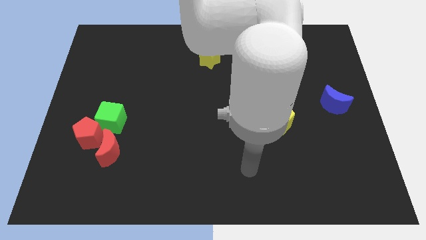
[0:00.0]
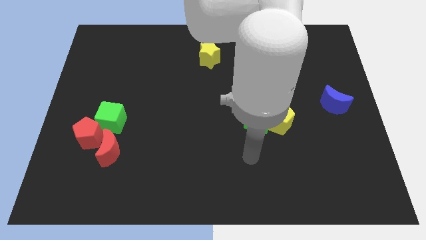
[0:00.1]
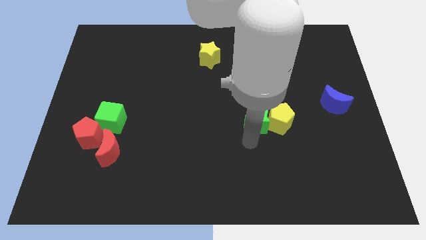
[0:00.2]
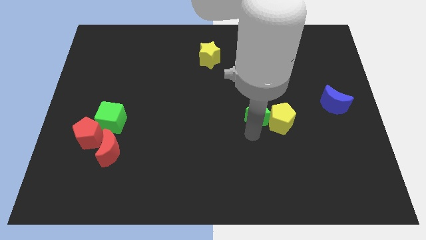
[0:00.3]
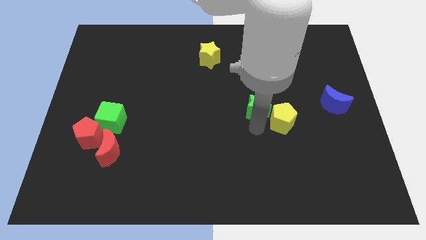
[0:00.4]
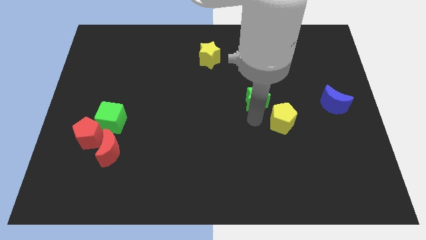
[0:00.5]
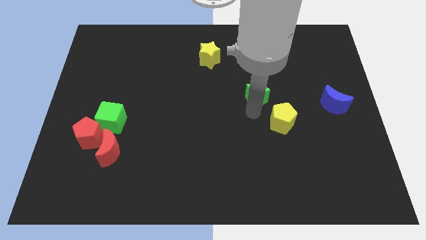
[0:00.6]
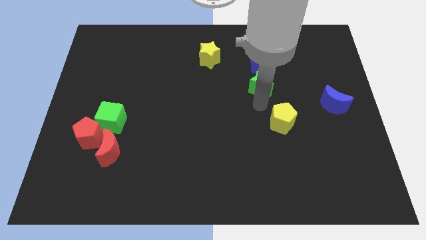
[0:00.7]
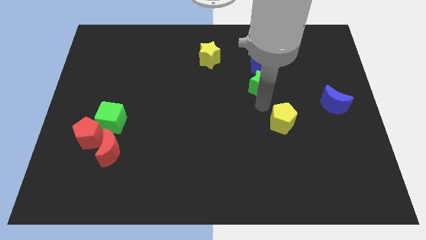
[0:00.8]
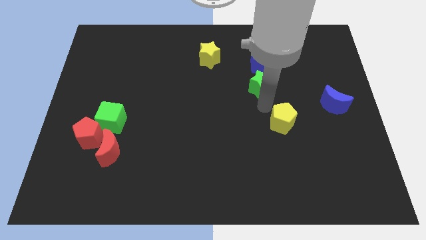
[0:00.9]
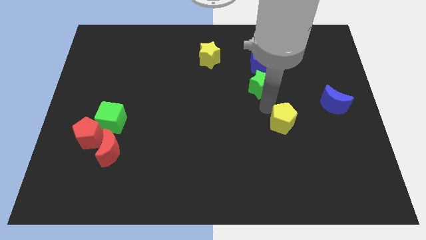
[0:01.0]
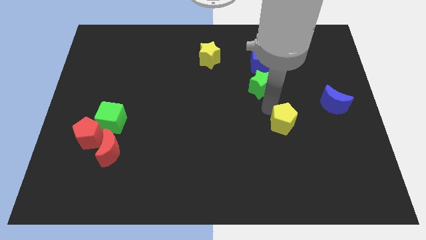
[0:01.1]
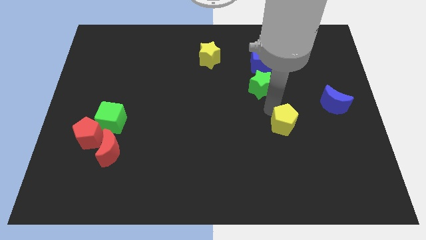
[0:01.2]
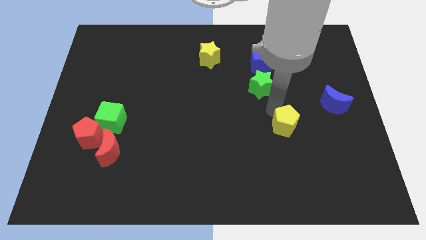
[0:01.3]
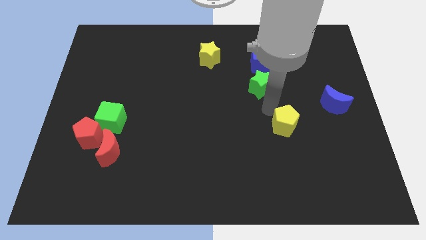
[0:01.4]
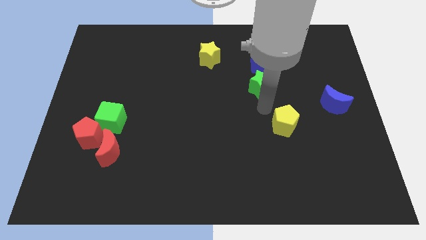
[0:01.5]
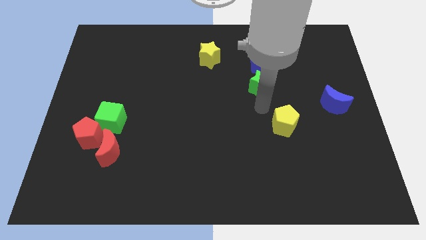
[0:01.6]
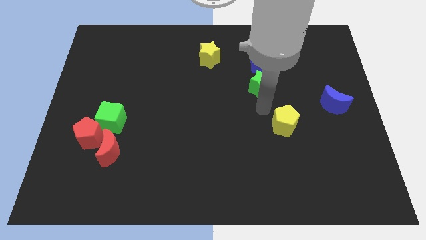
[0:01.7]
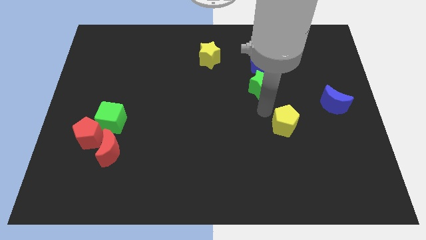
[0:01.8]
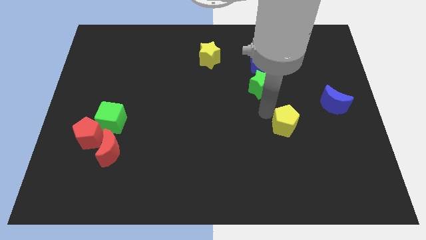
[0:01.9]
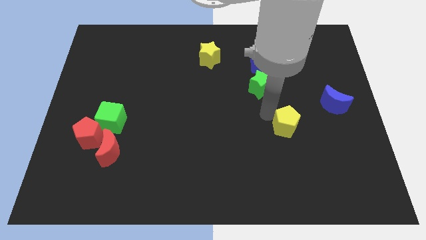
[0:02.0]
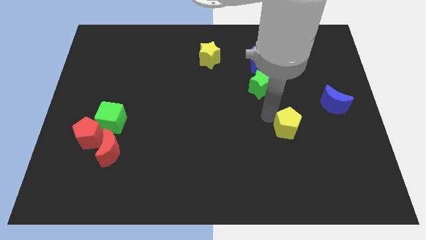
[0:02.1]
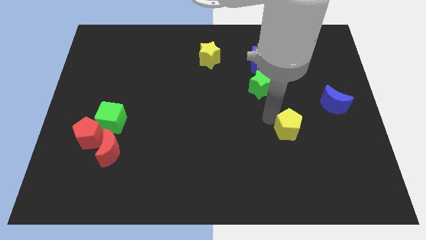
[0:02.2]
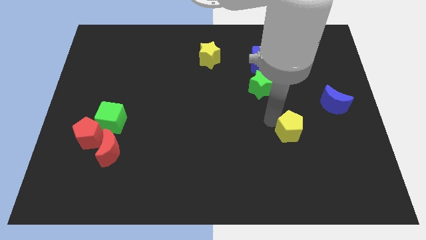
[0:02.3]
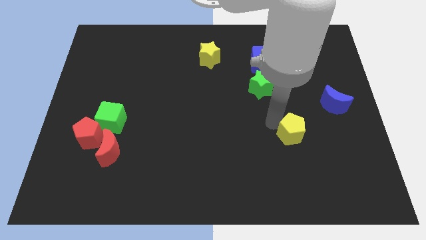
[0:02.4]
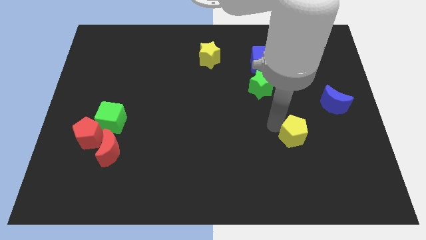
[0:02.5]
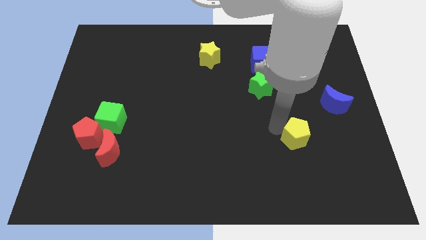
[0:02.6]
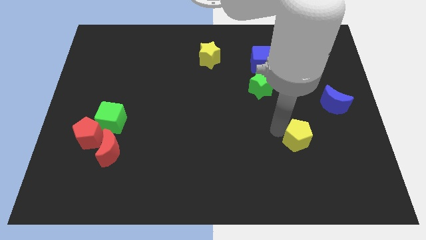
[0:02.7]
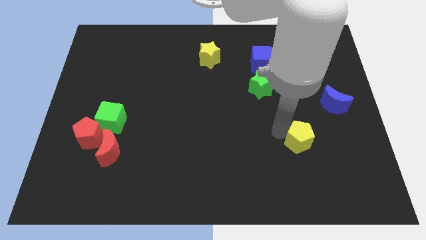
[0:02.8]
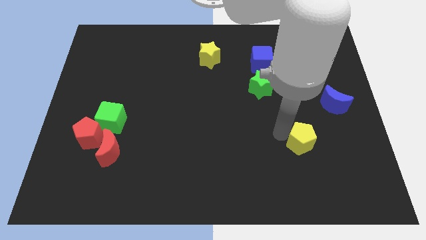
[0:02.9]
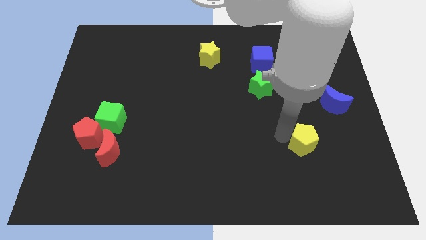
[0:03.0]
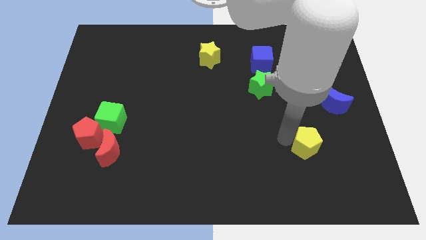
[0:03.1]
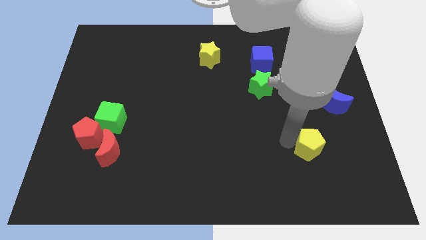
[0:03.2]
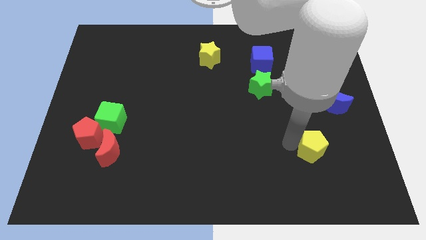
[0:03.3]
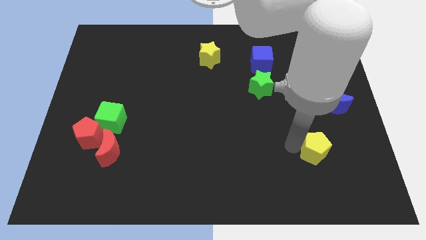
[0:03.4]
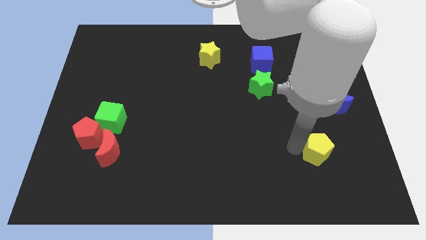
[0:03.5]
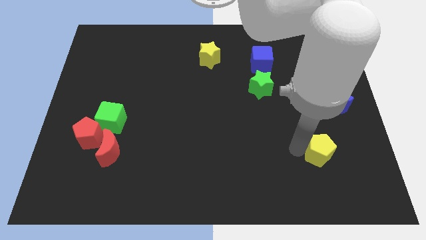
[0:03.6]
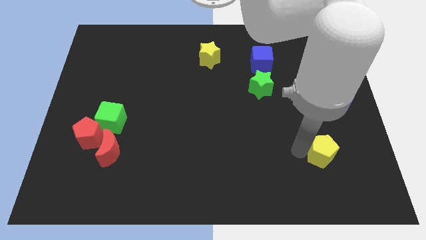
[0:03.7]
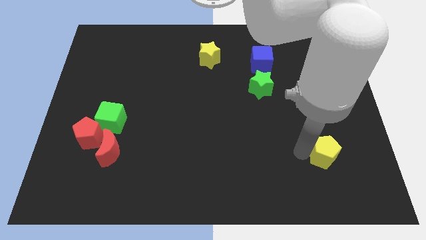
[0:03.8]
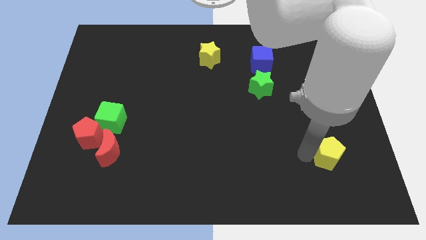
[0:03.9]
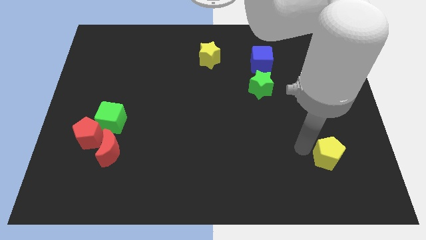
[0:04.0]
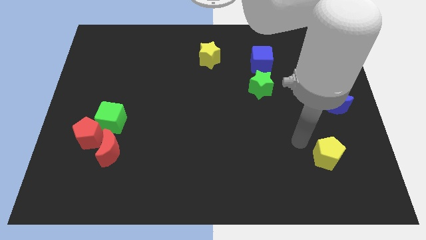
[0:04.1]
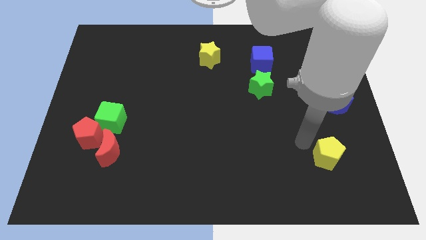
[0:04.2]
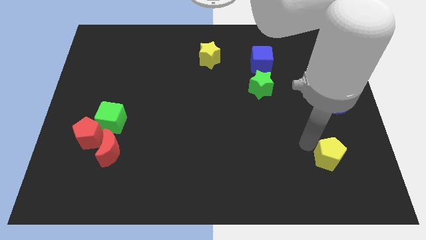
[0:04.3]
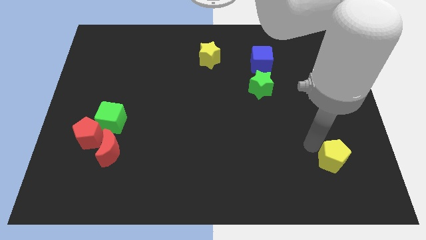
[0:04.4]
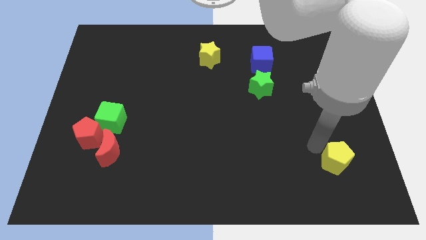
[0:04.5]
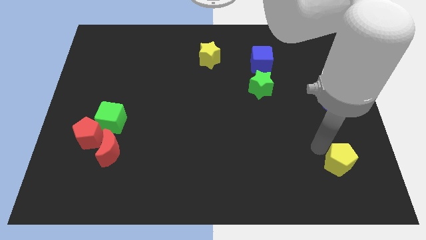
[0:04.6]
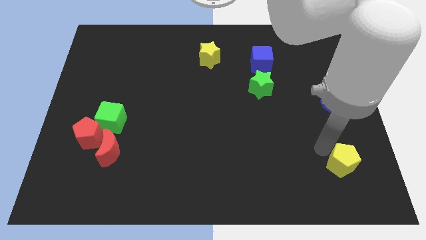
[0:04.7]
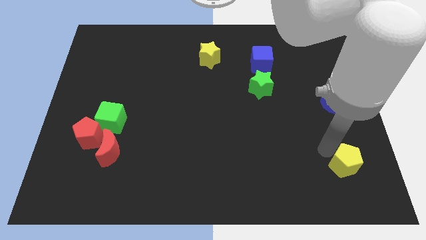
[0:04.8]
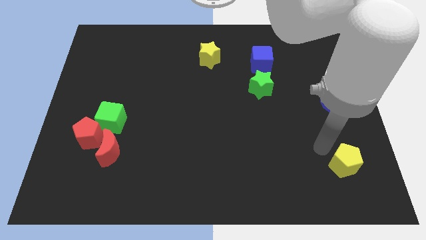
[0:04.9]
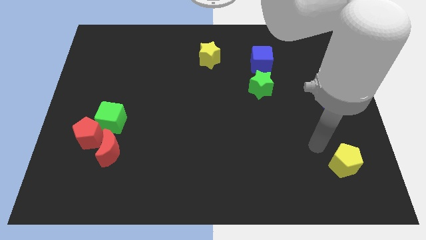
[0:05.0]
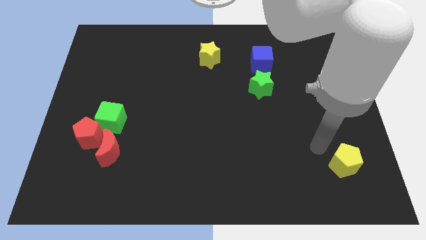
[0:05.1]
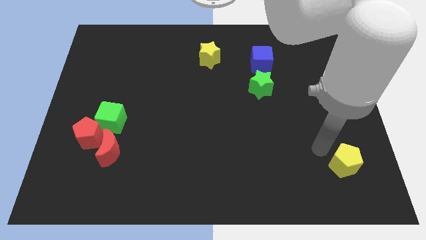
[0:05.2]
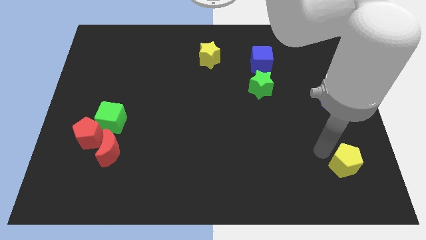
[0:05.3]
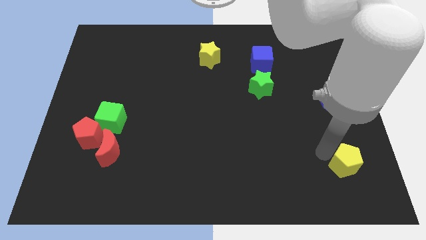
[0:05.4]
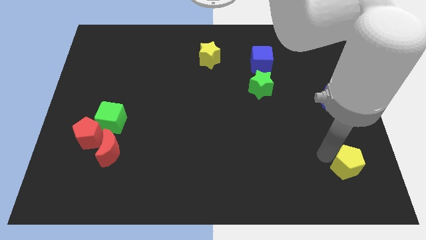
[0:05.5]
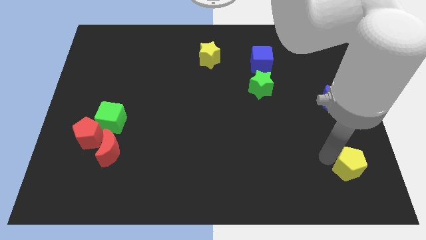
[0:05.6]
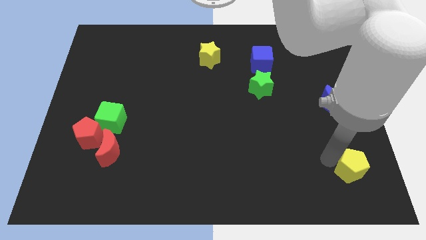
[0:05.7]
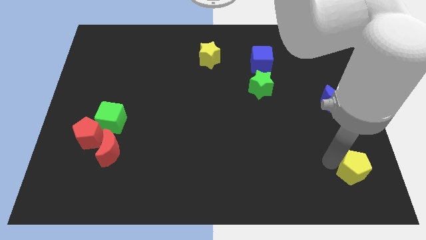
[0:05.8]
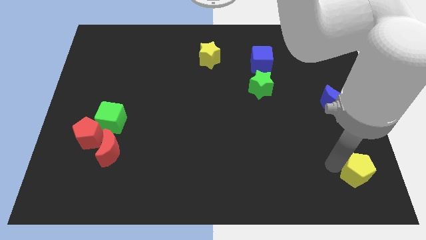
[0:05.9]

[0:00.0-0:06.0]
slide the yellow pentagon to the bottom right corner

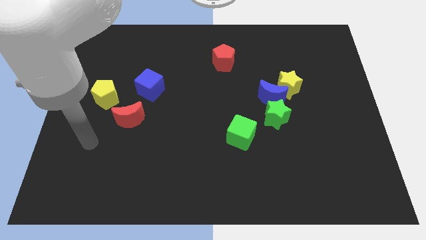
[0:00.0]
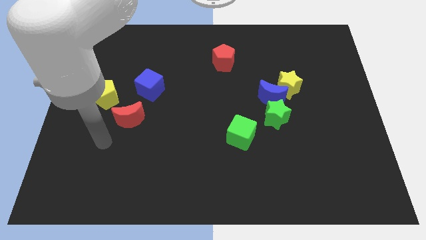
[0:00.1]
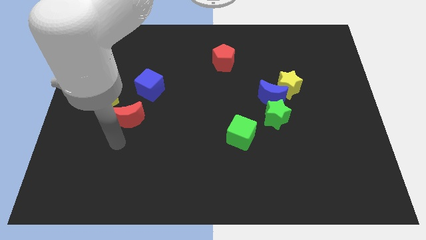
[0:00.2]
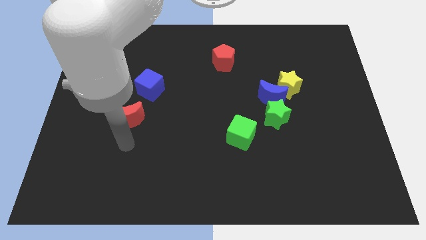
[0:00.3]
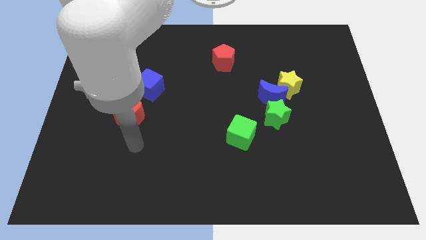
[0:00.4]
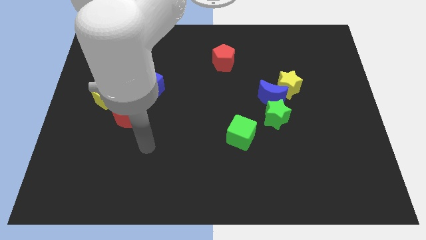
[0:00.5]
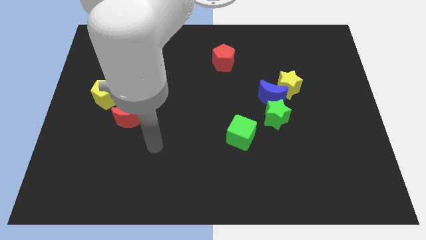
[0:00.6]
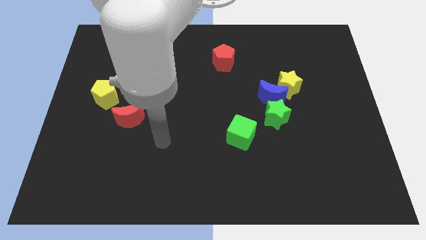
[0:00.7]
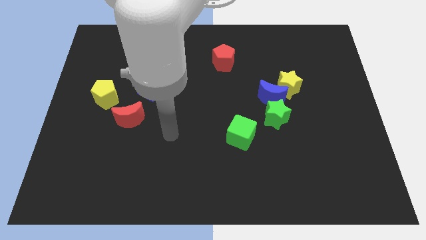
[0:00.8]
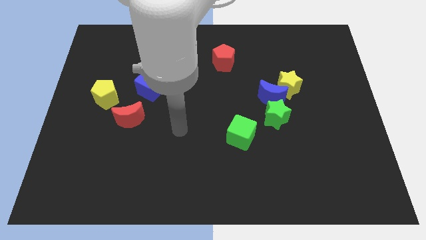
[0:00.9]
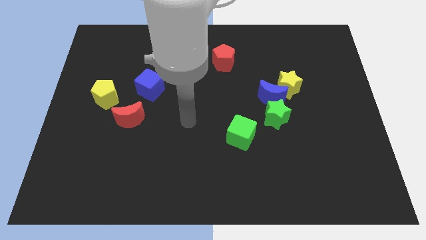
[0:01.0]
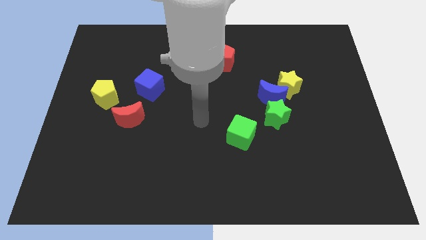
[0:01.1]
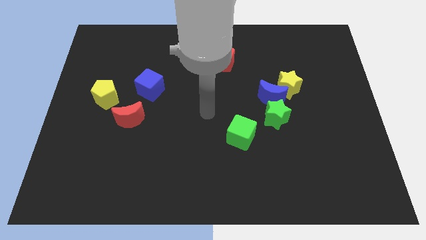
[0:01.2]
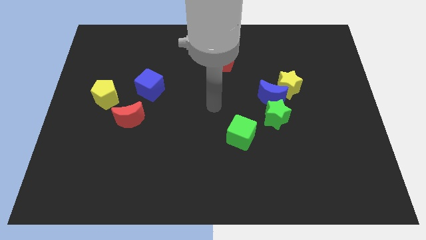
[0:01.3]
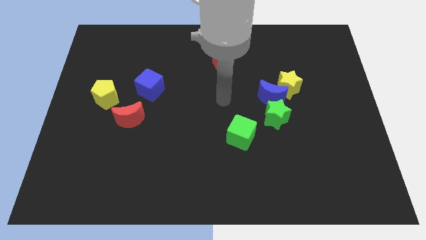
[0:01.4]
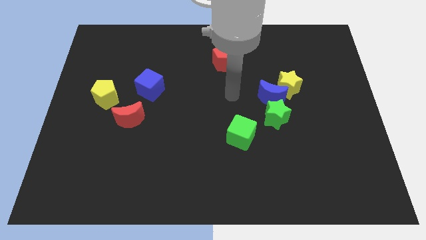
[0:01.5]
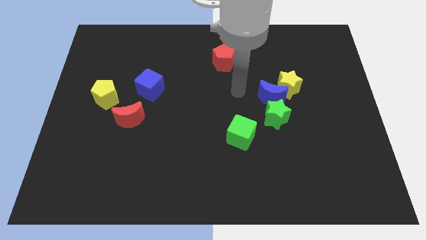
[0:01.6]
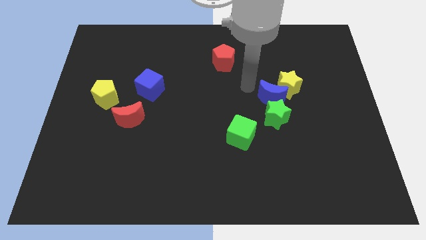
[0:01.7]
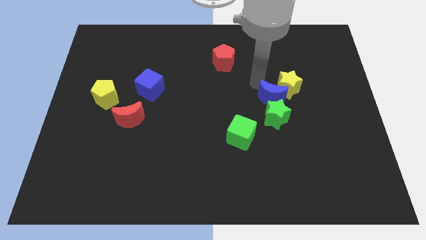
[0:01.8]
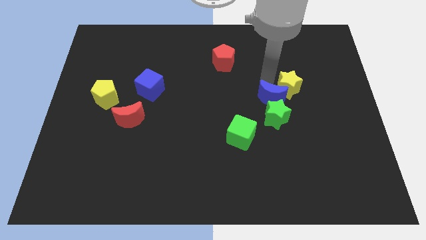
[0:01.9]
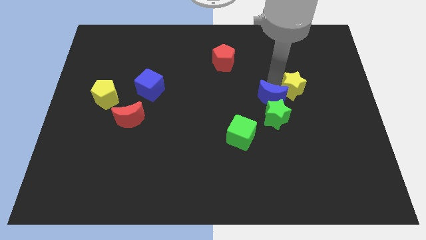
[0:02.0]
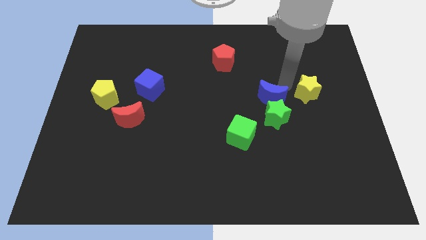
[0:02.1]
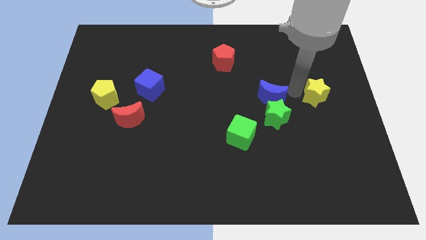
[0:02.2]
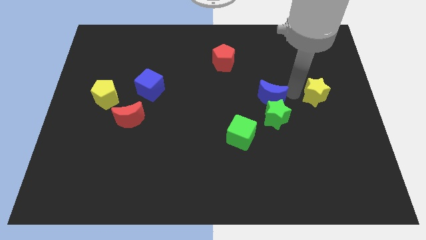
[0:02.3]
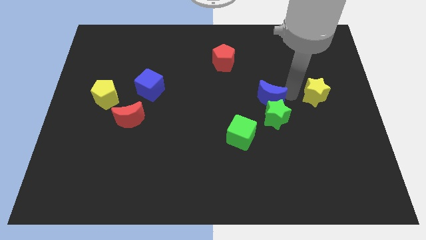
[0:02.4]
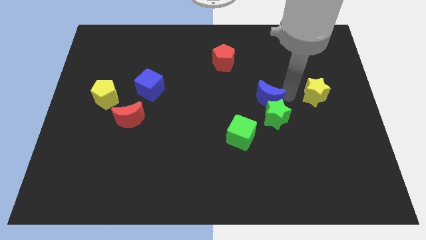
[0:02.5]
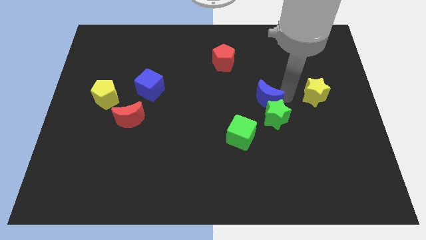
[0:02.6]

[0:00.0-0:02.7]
slide the blue moon to the middle of the board
